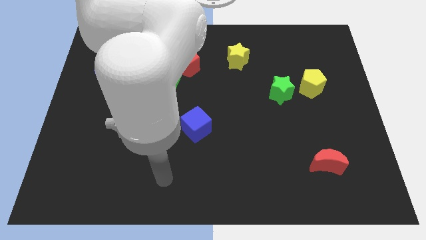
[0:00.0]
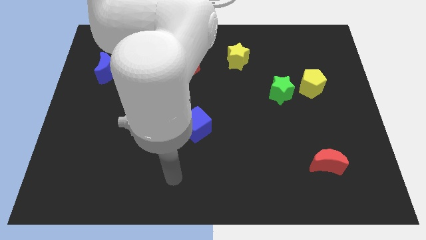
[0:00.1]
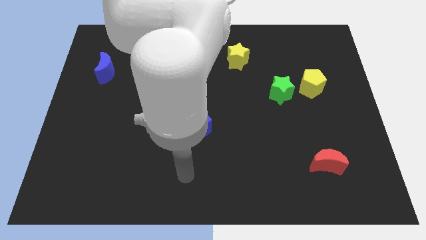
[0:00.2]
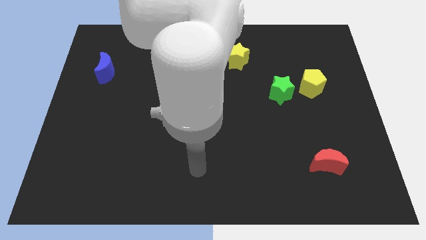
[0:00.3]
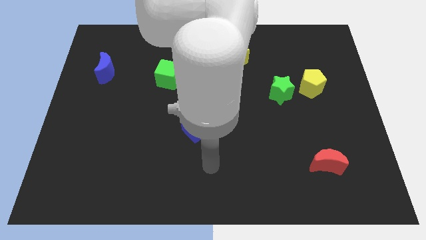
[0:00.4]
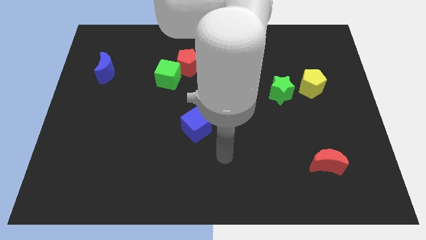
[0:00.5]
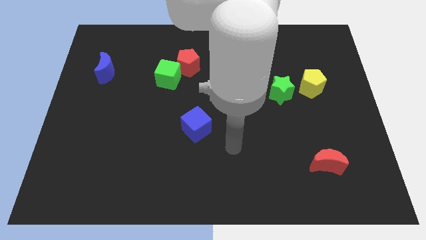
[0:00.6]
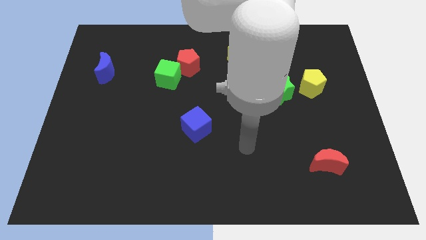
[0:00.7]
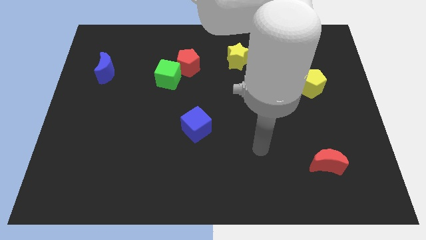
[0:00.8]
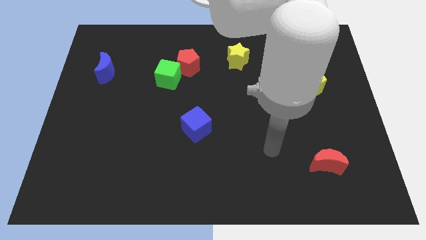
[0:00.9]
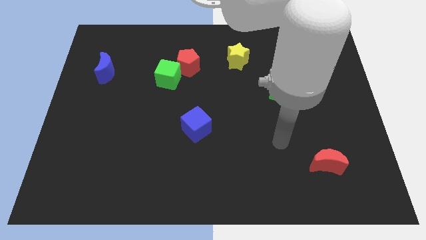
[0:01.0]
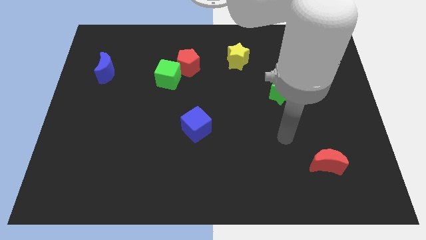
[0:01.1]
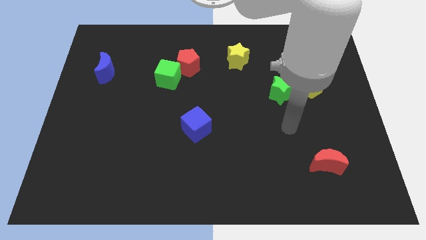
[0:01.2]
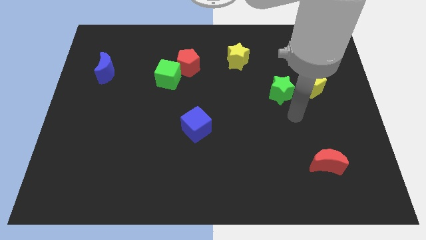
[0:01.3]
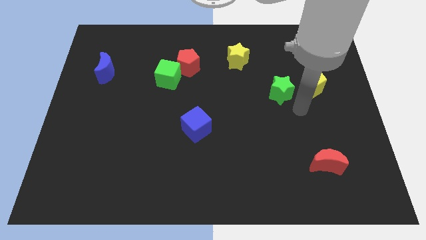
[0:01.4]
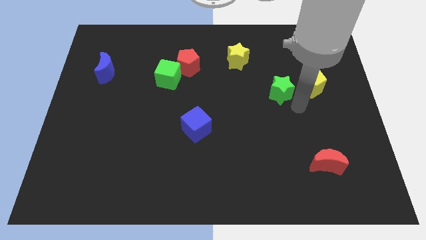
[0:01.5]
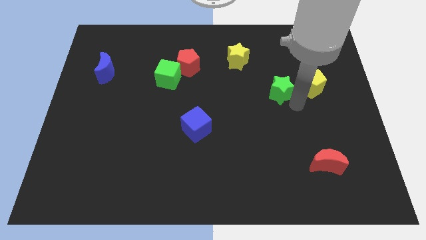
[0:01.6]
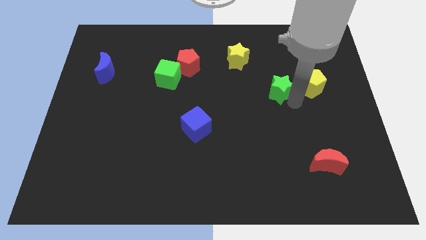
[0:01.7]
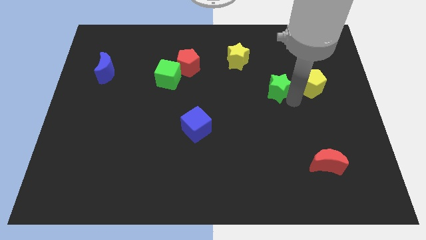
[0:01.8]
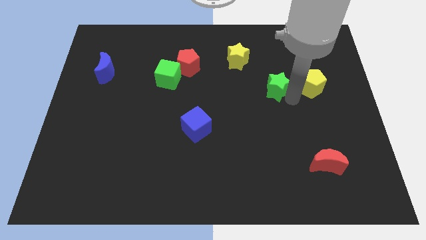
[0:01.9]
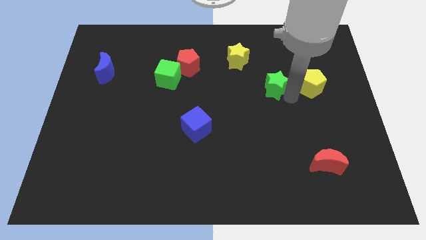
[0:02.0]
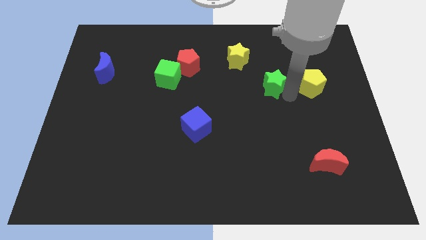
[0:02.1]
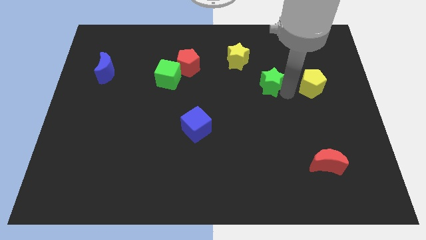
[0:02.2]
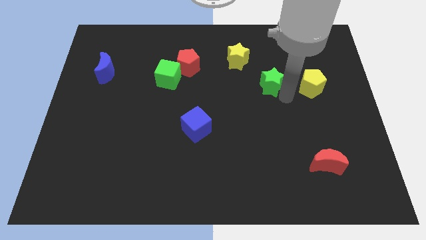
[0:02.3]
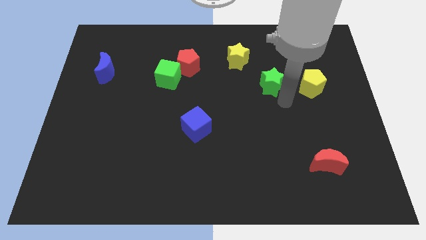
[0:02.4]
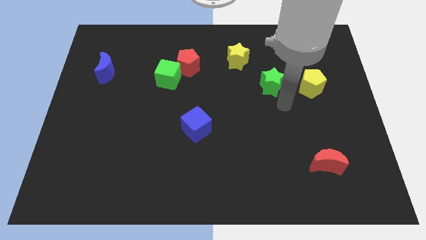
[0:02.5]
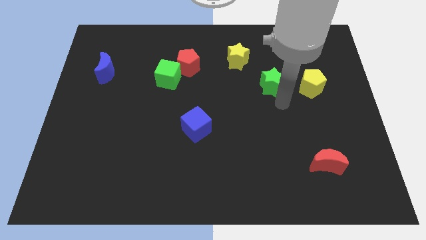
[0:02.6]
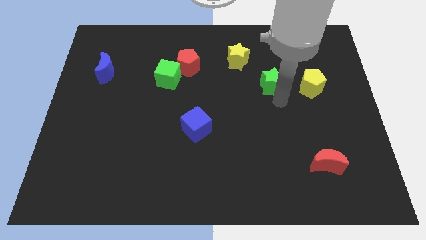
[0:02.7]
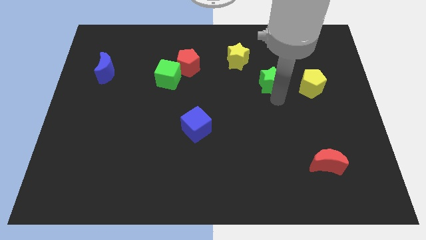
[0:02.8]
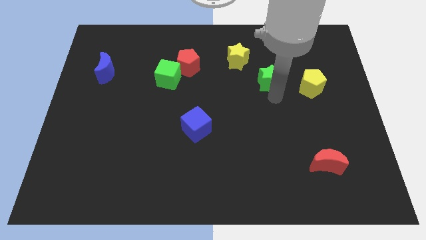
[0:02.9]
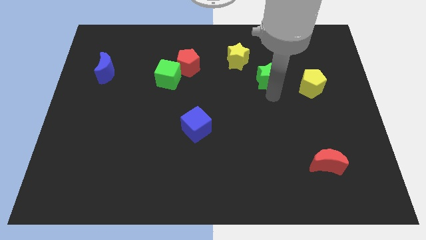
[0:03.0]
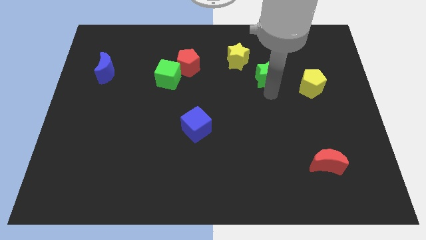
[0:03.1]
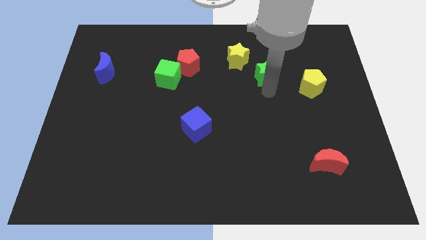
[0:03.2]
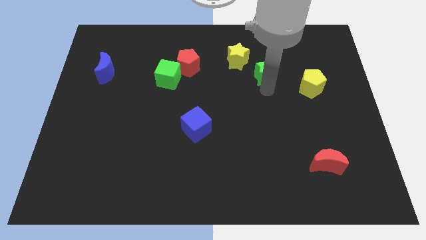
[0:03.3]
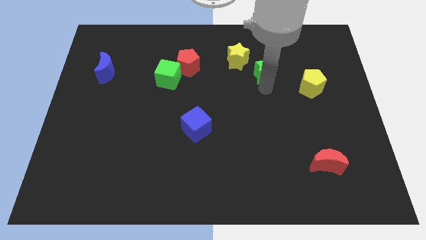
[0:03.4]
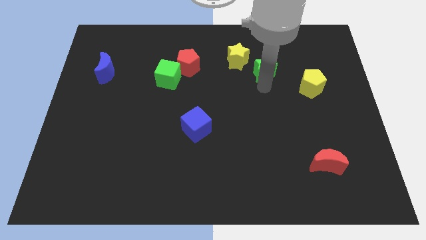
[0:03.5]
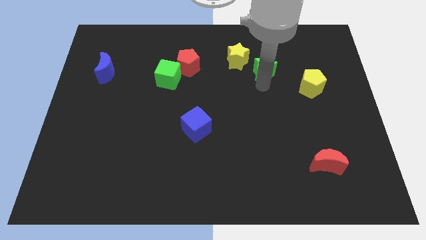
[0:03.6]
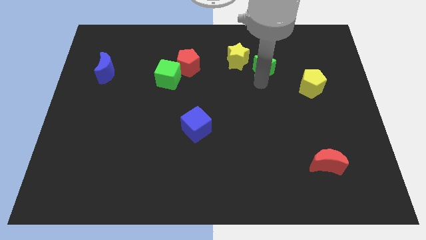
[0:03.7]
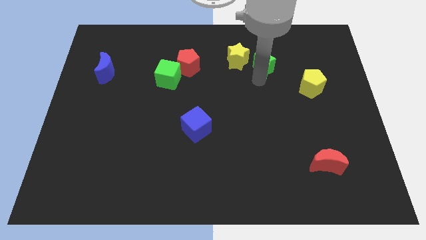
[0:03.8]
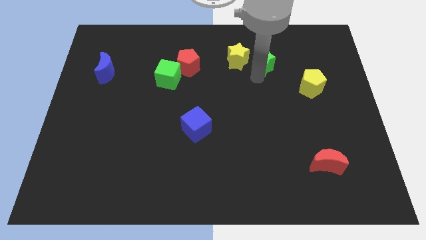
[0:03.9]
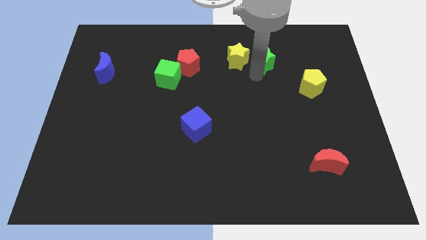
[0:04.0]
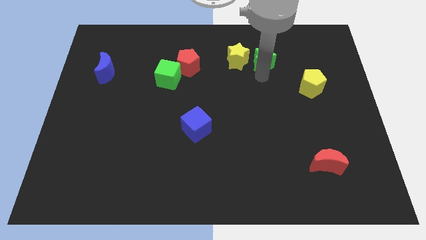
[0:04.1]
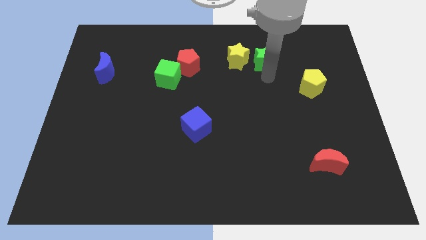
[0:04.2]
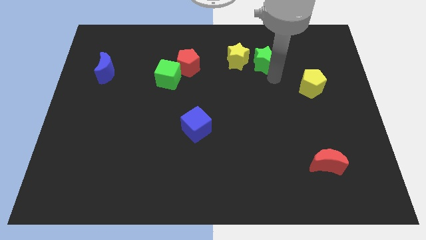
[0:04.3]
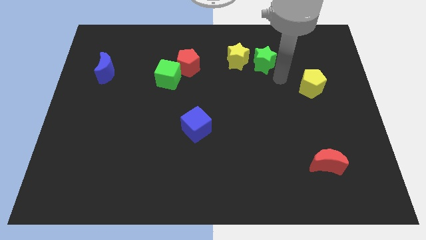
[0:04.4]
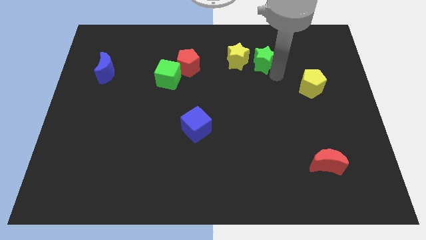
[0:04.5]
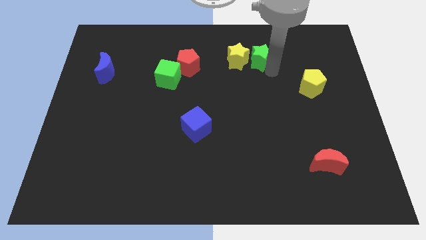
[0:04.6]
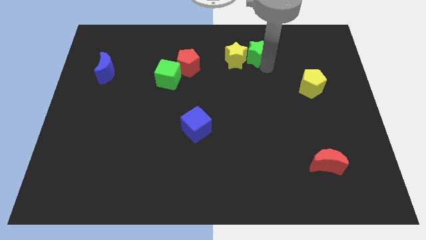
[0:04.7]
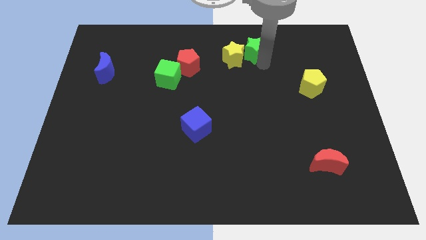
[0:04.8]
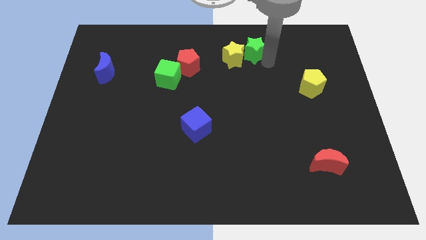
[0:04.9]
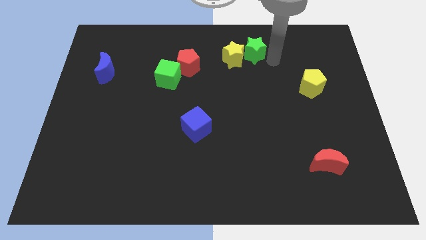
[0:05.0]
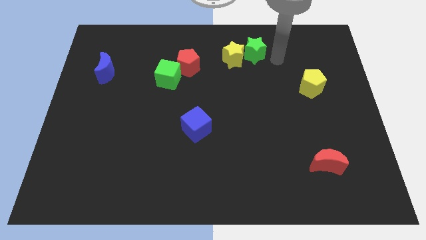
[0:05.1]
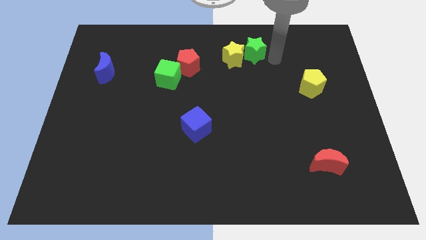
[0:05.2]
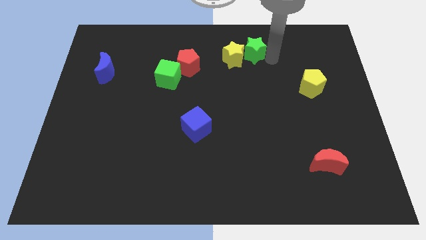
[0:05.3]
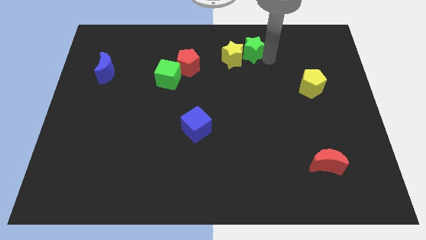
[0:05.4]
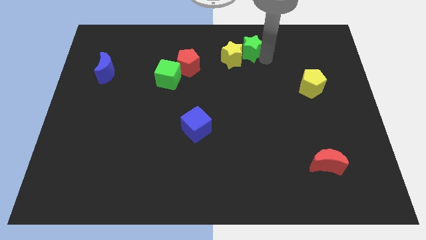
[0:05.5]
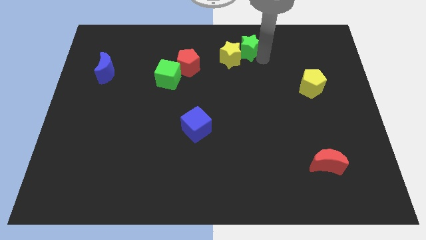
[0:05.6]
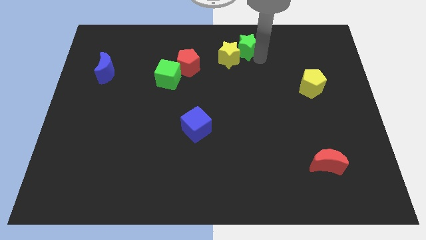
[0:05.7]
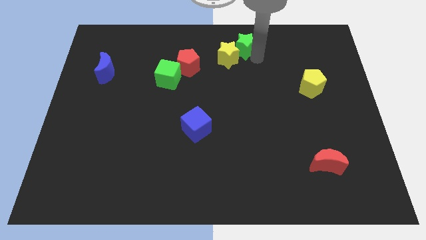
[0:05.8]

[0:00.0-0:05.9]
put the green star to the towards your base
